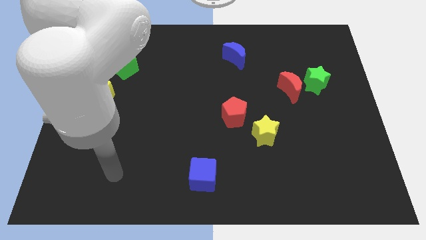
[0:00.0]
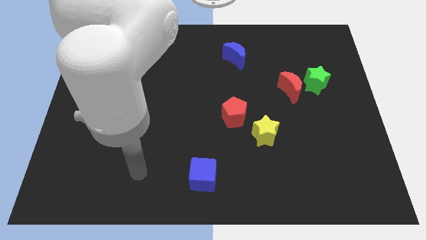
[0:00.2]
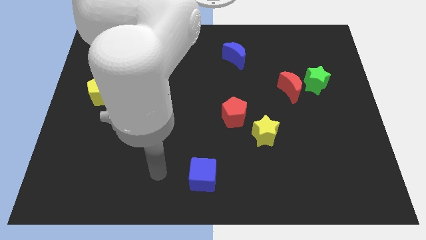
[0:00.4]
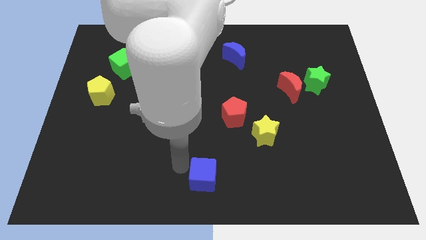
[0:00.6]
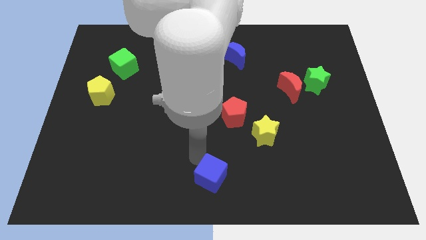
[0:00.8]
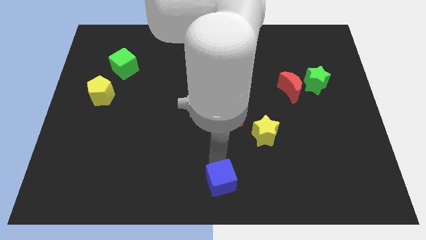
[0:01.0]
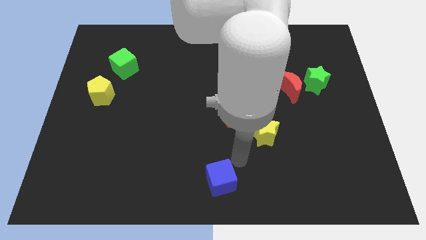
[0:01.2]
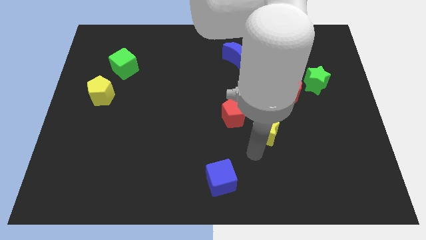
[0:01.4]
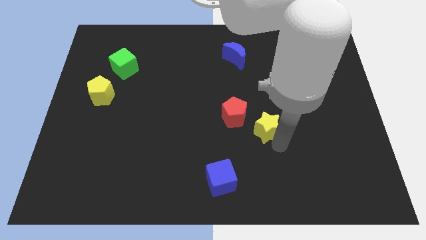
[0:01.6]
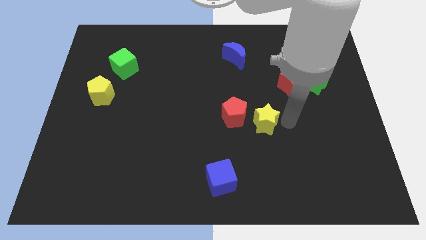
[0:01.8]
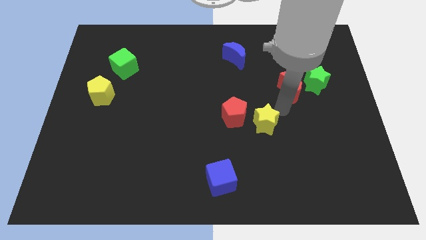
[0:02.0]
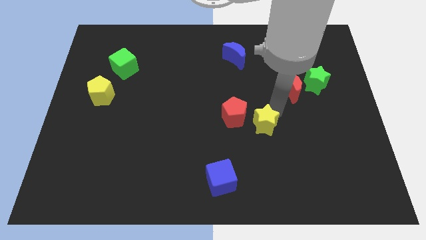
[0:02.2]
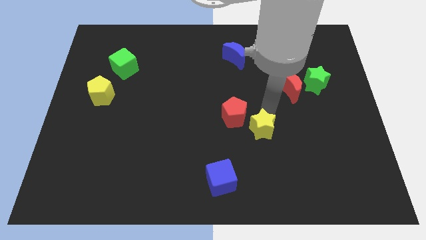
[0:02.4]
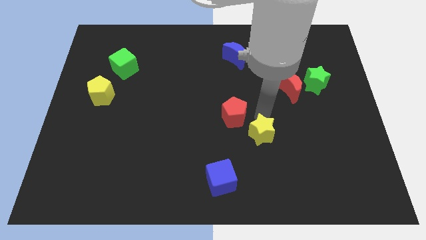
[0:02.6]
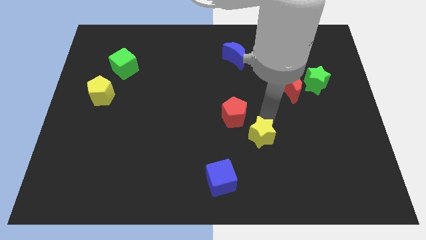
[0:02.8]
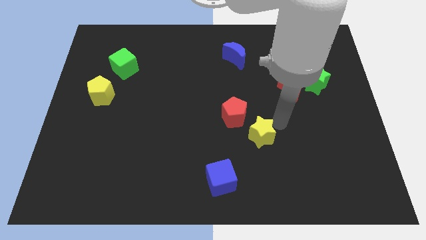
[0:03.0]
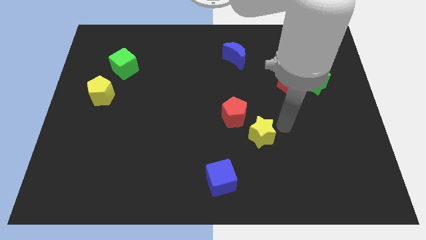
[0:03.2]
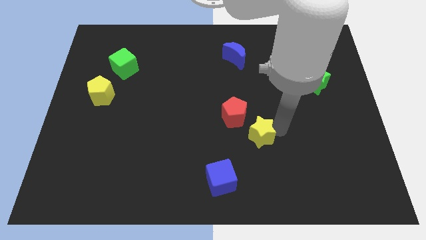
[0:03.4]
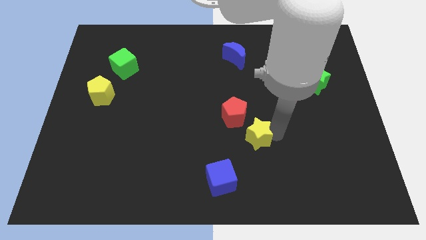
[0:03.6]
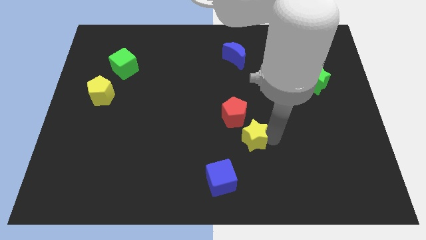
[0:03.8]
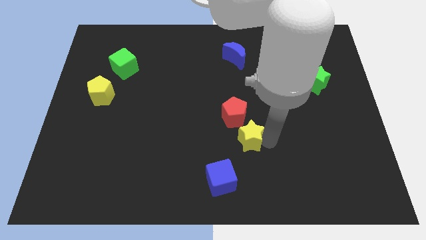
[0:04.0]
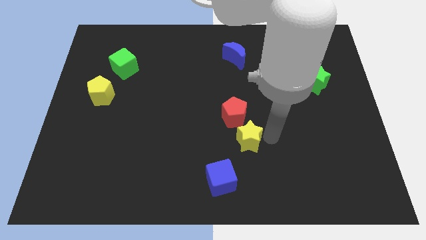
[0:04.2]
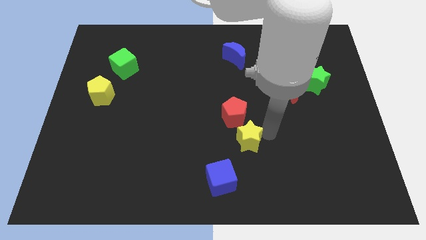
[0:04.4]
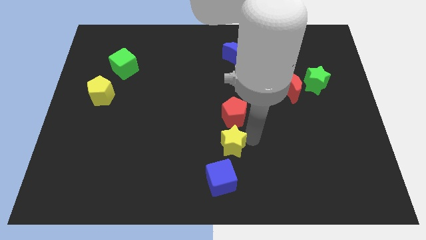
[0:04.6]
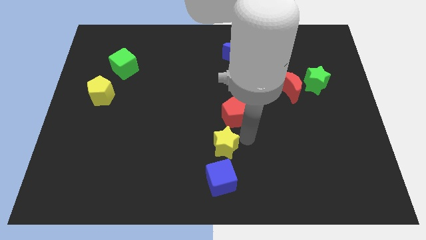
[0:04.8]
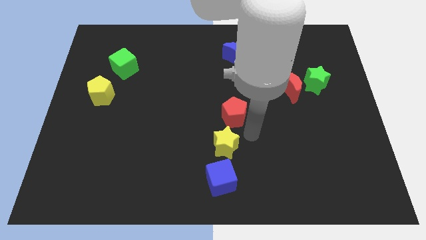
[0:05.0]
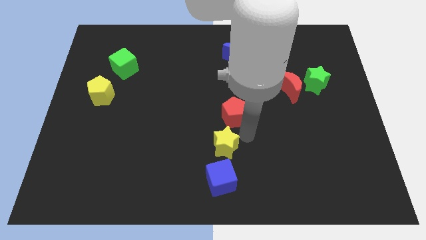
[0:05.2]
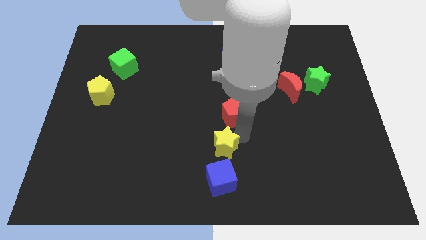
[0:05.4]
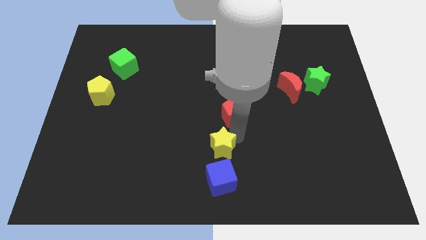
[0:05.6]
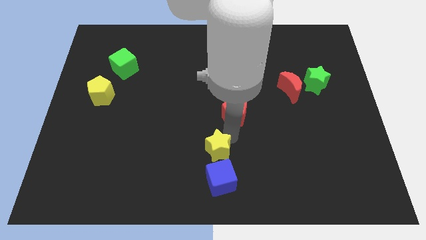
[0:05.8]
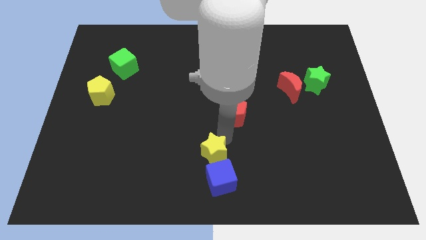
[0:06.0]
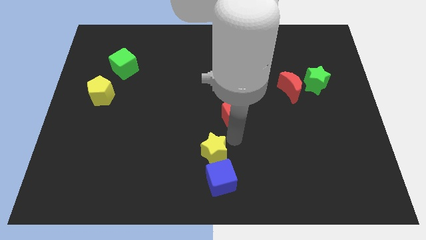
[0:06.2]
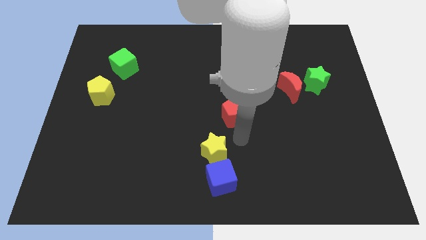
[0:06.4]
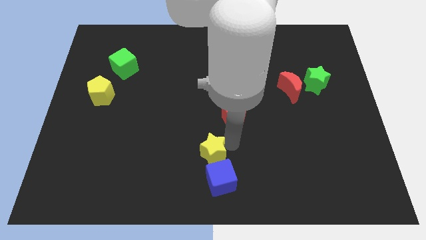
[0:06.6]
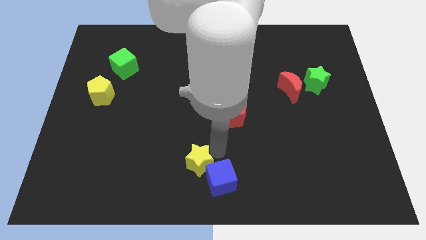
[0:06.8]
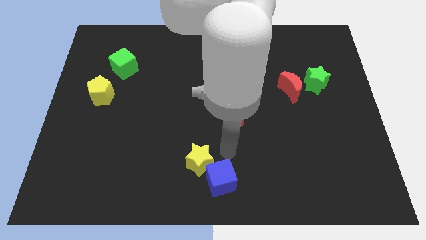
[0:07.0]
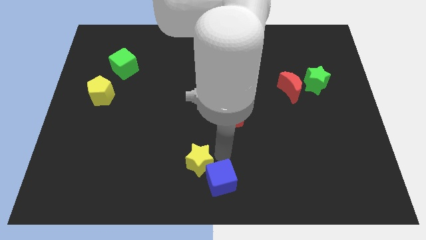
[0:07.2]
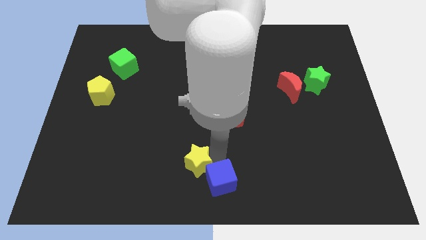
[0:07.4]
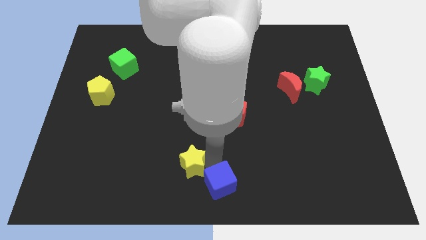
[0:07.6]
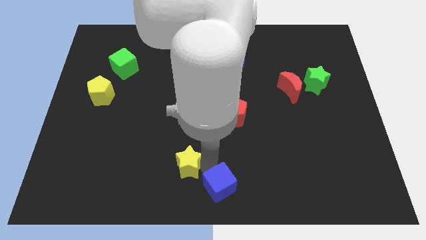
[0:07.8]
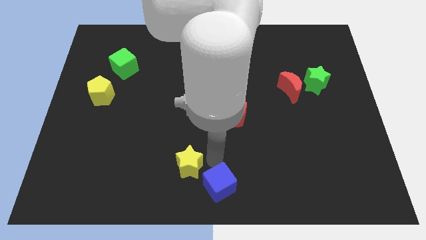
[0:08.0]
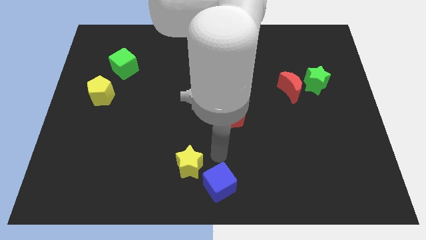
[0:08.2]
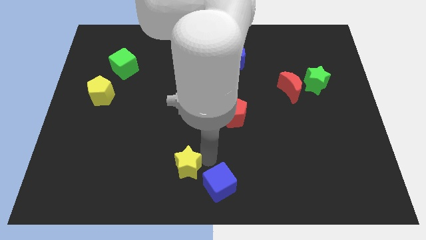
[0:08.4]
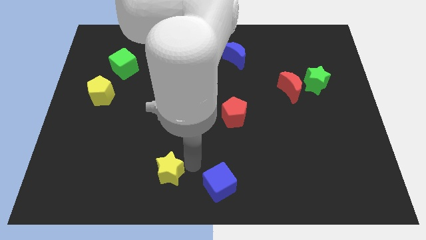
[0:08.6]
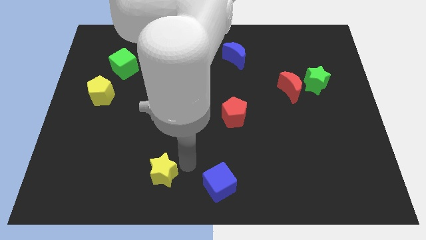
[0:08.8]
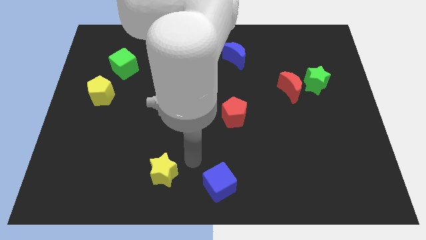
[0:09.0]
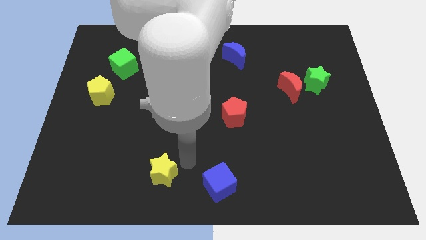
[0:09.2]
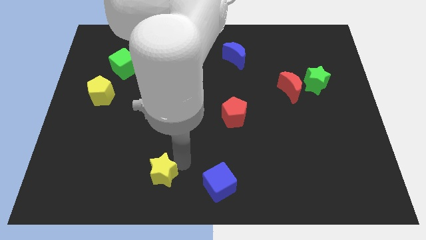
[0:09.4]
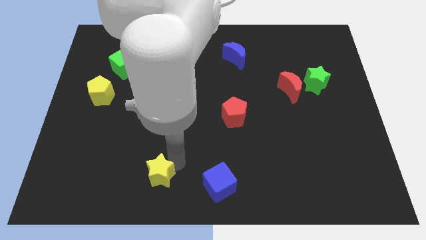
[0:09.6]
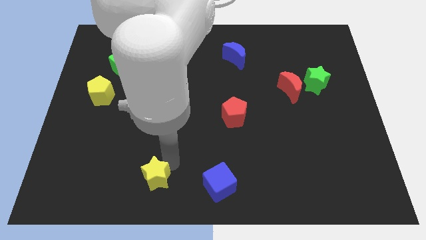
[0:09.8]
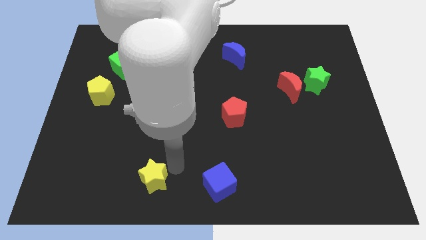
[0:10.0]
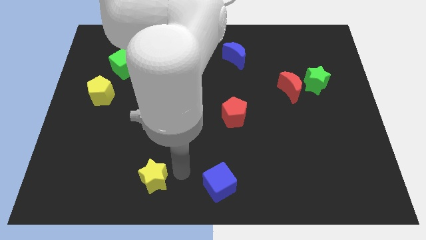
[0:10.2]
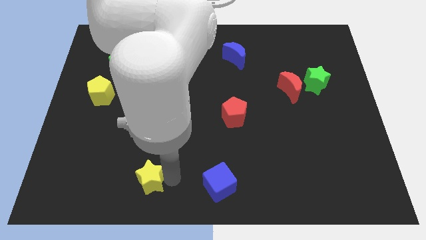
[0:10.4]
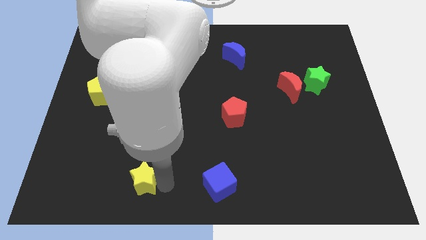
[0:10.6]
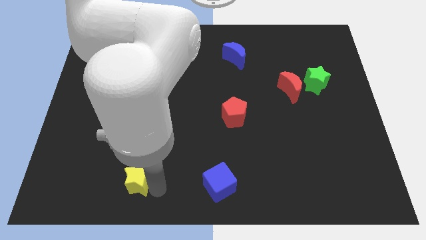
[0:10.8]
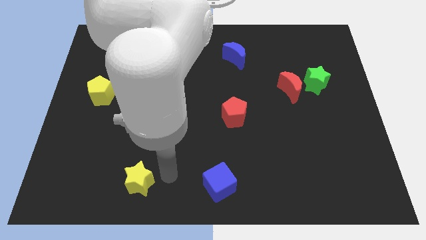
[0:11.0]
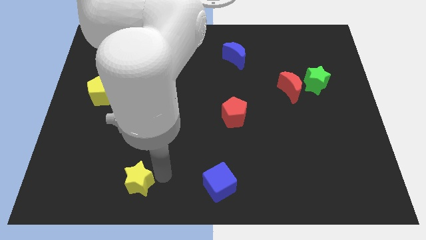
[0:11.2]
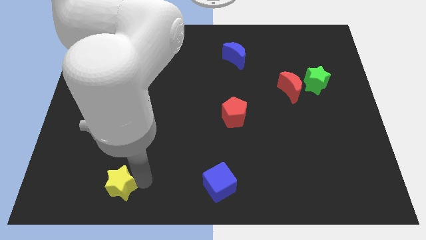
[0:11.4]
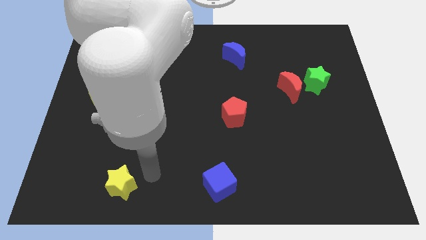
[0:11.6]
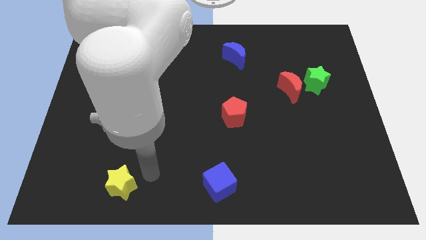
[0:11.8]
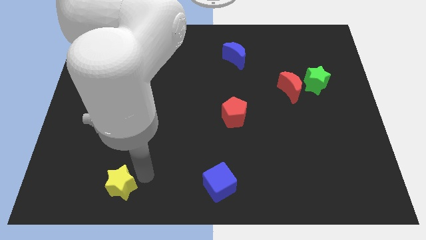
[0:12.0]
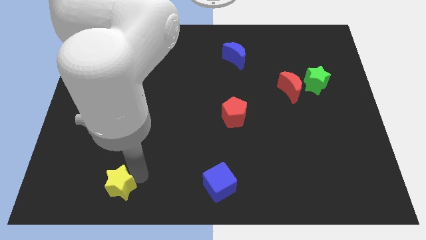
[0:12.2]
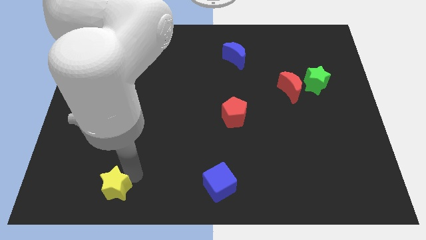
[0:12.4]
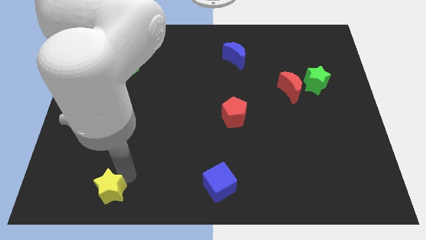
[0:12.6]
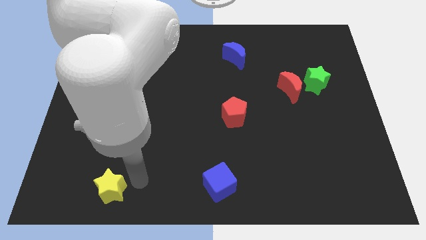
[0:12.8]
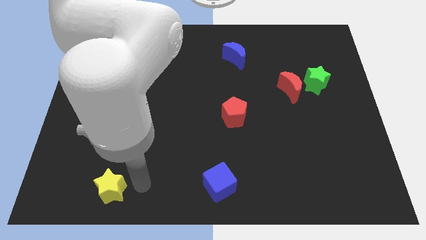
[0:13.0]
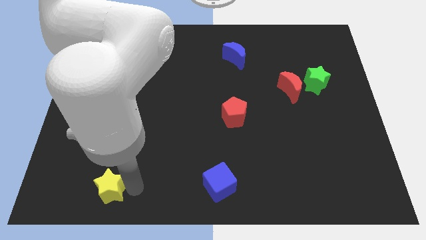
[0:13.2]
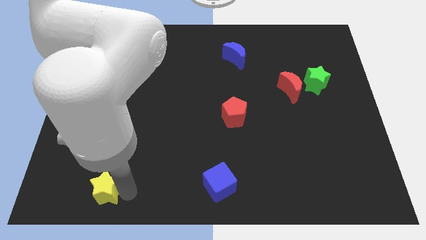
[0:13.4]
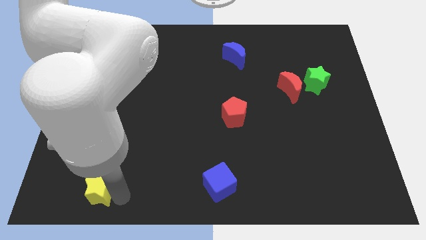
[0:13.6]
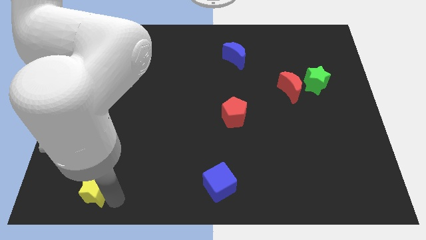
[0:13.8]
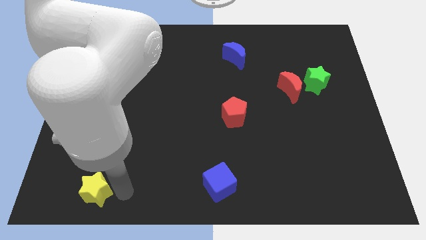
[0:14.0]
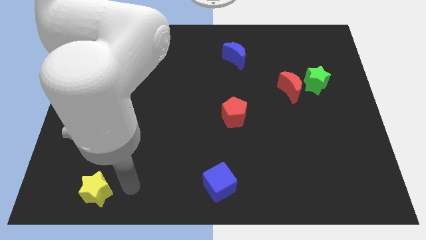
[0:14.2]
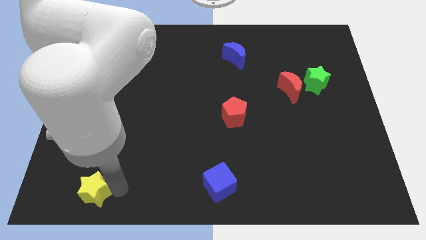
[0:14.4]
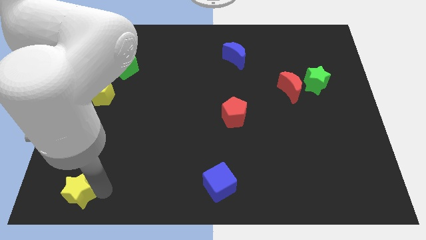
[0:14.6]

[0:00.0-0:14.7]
move the yellow star to the lower left corner
